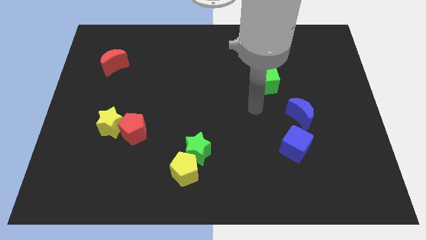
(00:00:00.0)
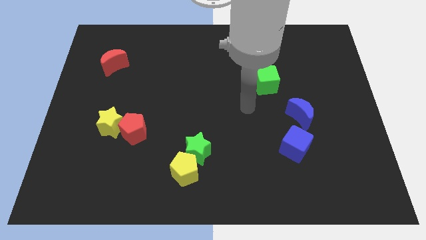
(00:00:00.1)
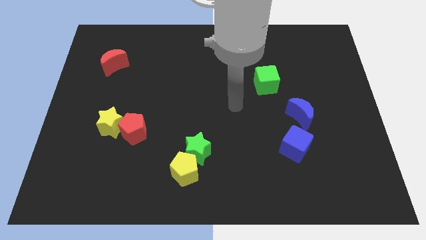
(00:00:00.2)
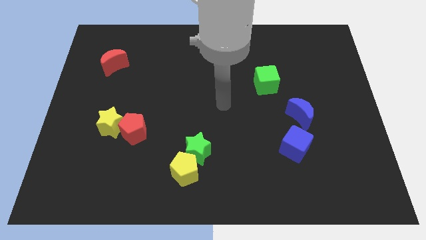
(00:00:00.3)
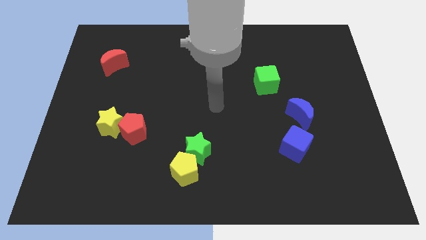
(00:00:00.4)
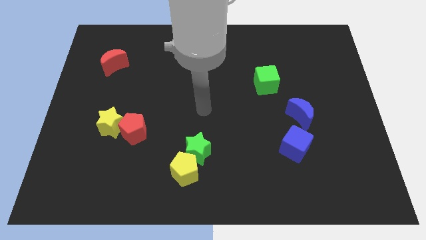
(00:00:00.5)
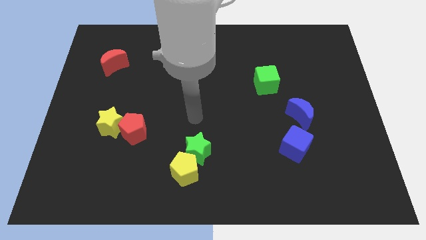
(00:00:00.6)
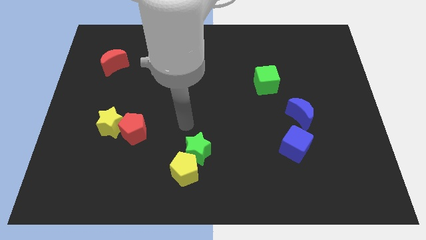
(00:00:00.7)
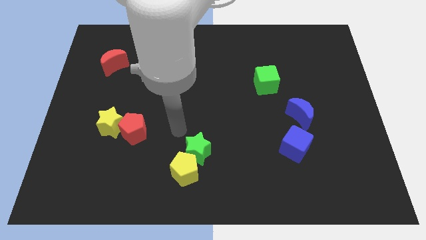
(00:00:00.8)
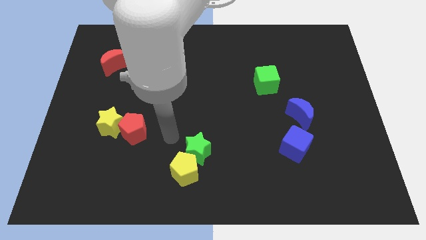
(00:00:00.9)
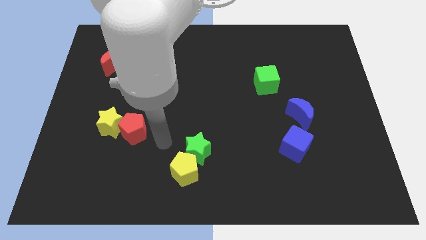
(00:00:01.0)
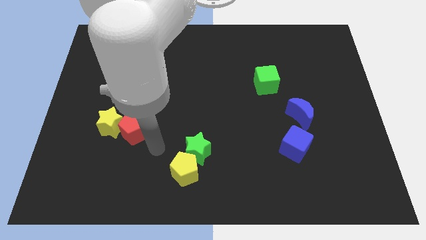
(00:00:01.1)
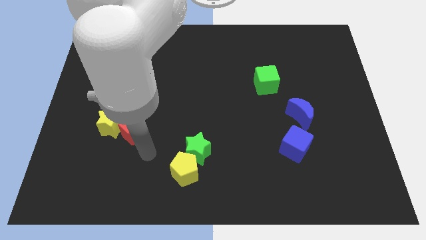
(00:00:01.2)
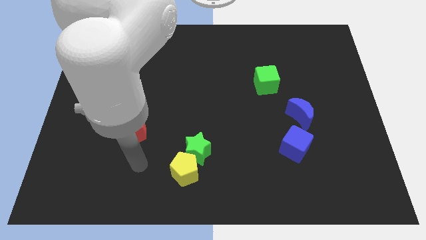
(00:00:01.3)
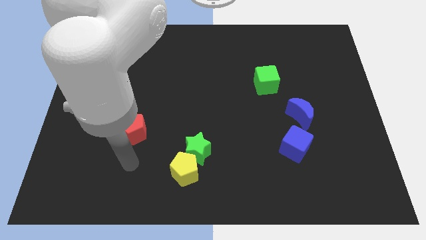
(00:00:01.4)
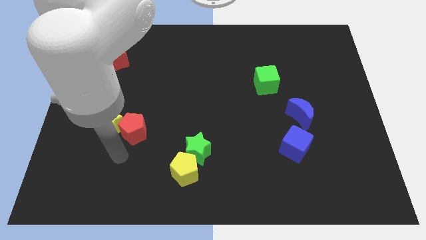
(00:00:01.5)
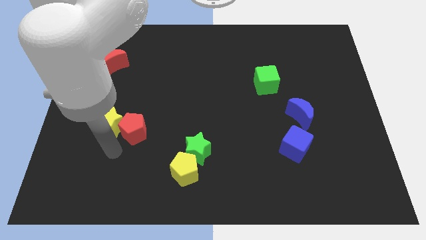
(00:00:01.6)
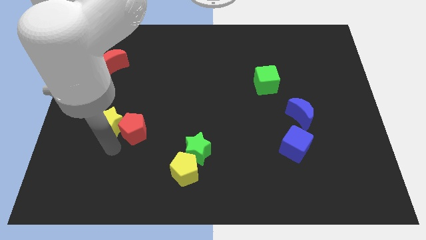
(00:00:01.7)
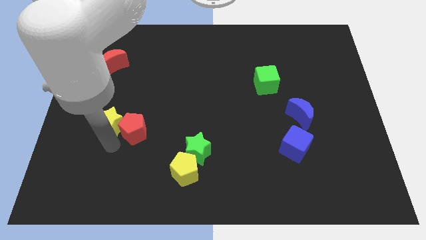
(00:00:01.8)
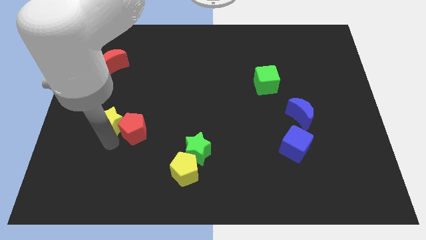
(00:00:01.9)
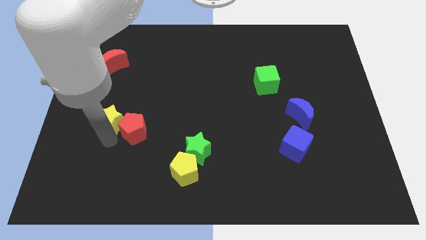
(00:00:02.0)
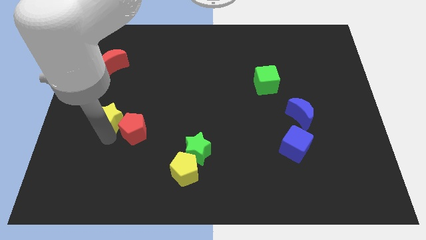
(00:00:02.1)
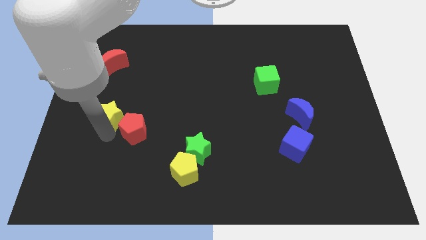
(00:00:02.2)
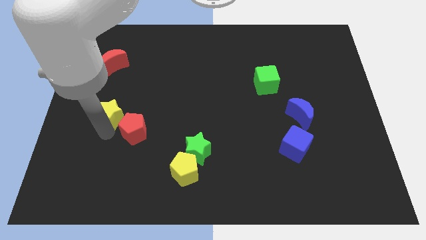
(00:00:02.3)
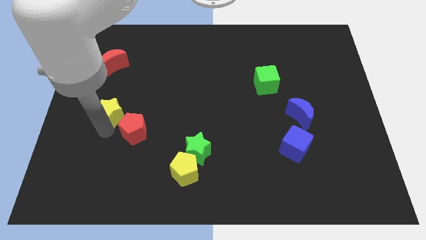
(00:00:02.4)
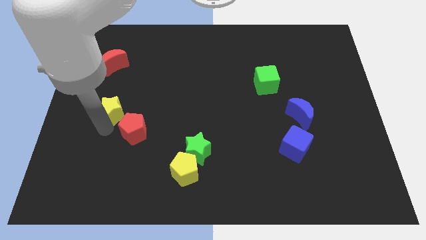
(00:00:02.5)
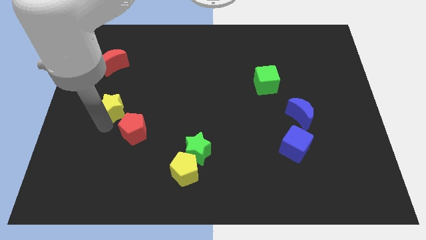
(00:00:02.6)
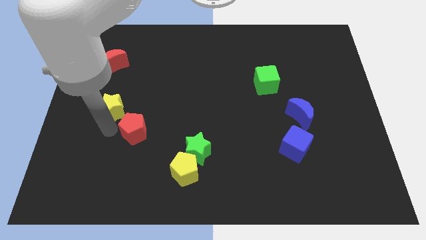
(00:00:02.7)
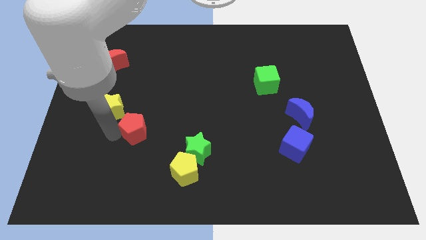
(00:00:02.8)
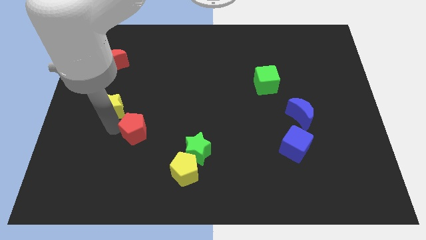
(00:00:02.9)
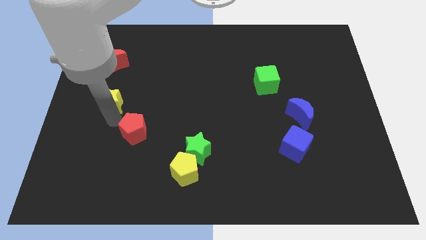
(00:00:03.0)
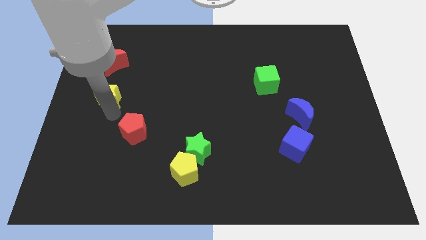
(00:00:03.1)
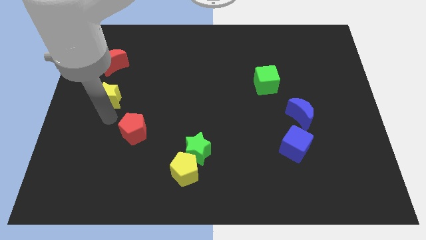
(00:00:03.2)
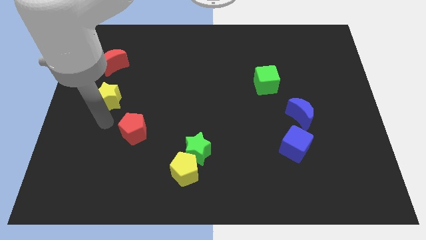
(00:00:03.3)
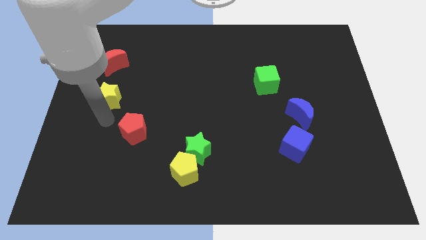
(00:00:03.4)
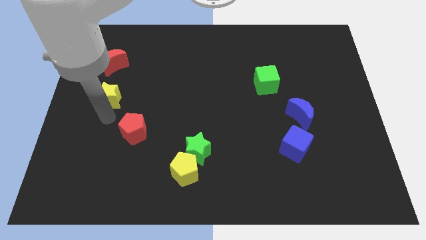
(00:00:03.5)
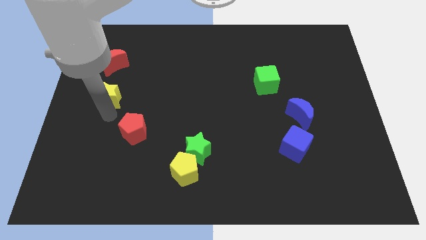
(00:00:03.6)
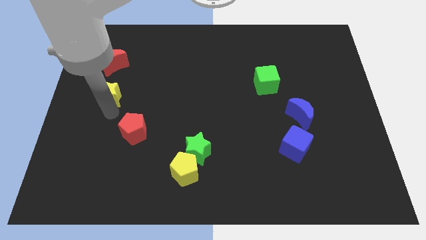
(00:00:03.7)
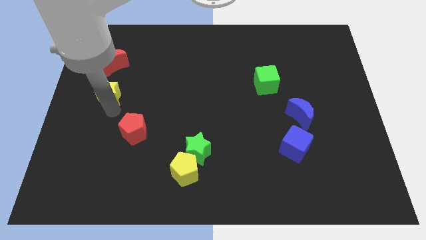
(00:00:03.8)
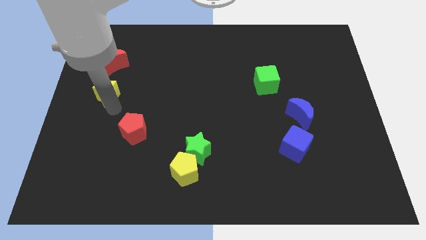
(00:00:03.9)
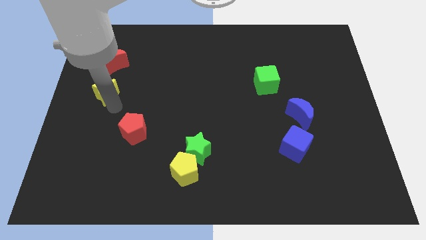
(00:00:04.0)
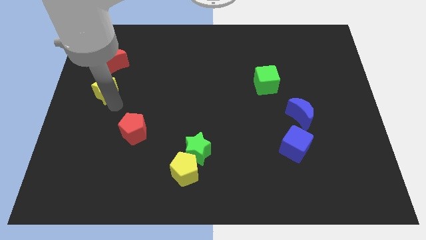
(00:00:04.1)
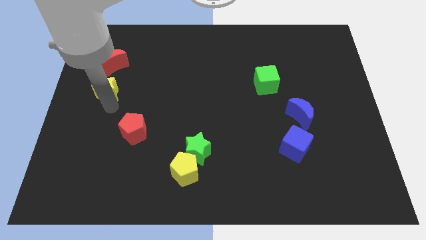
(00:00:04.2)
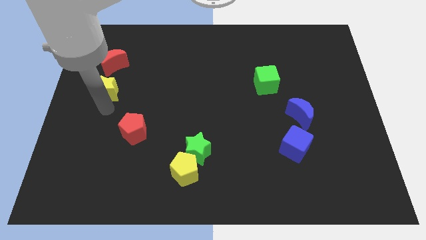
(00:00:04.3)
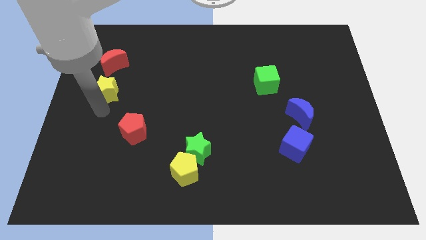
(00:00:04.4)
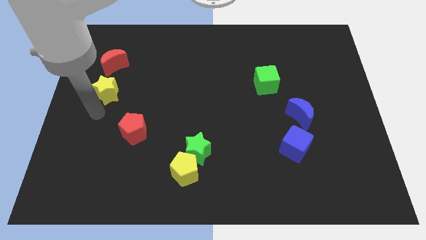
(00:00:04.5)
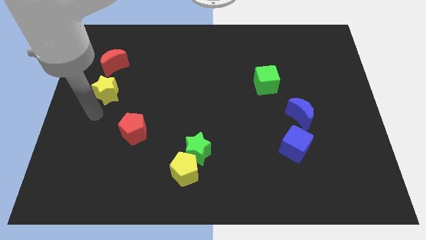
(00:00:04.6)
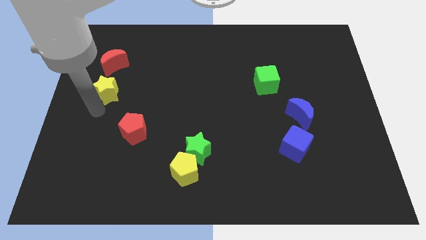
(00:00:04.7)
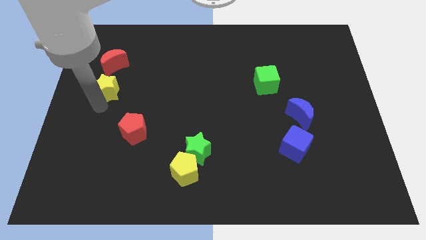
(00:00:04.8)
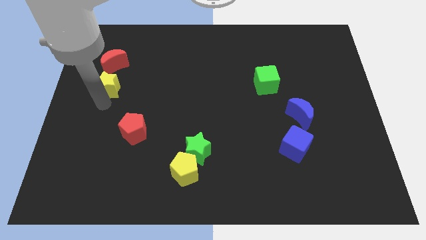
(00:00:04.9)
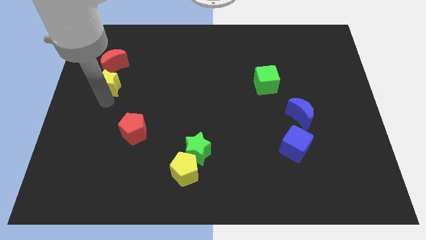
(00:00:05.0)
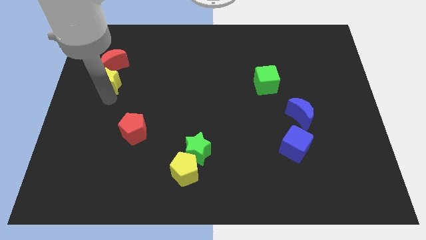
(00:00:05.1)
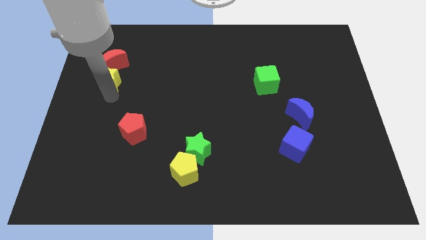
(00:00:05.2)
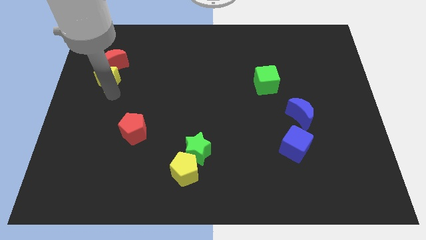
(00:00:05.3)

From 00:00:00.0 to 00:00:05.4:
slide the yellow star towards the red moon

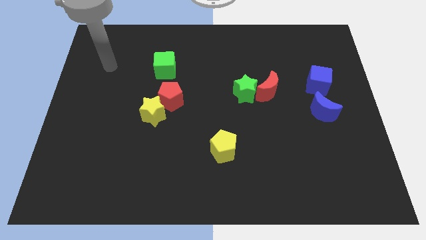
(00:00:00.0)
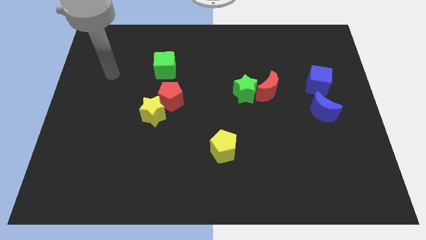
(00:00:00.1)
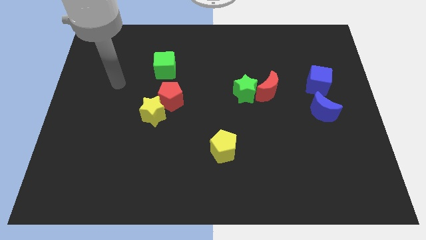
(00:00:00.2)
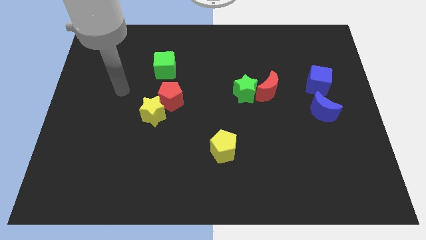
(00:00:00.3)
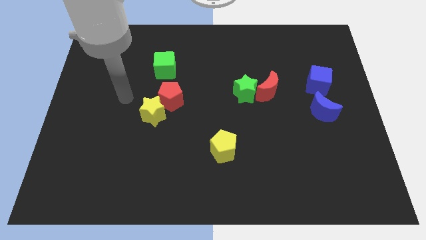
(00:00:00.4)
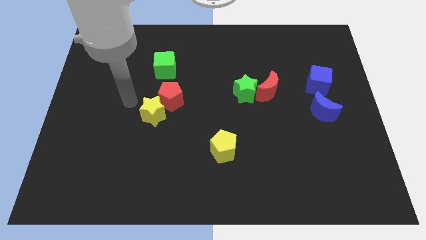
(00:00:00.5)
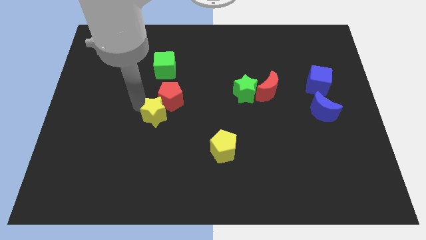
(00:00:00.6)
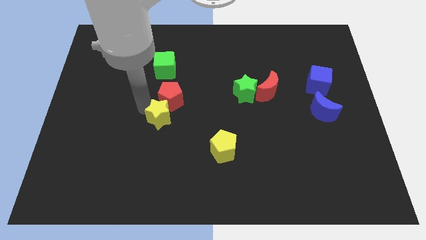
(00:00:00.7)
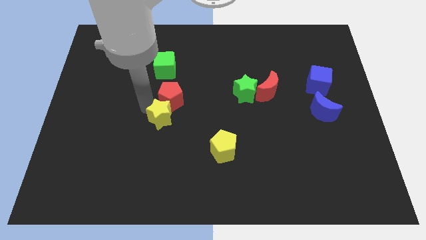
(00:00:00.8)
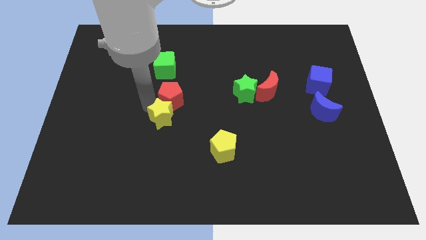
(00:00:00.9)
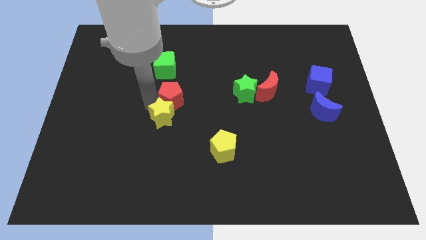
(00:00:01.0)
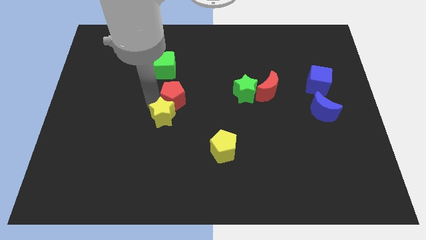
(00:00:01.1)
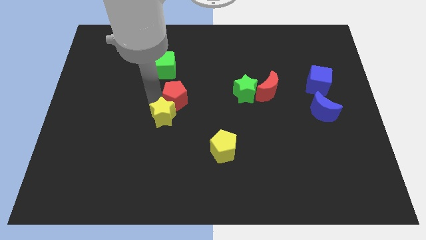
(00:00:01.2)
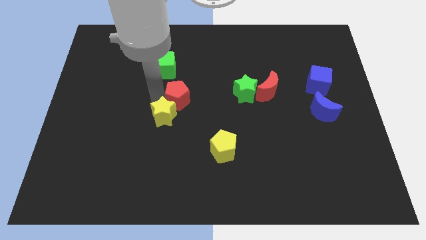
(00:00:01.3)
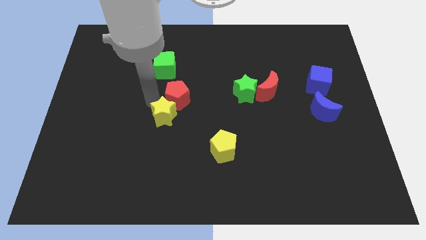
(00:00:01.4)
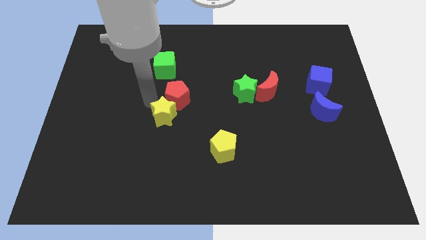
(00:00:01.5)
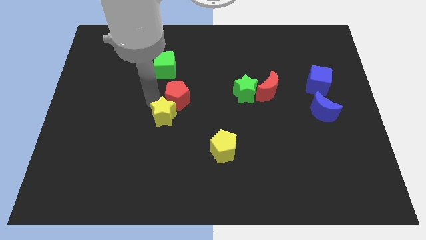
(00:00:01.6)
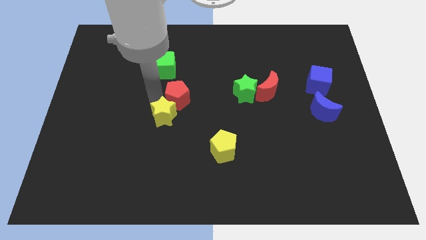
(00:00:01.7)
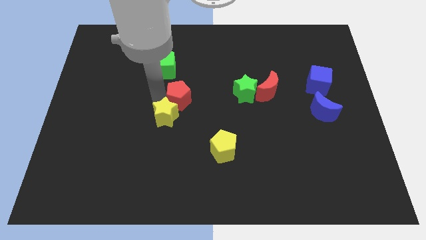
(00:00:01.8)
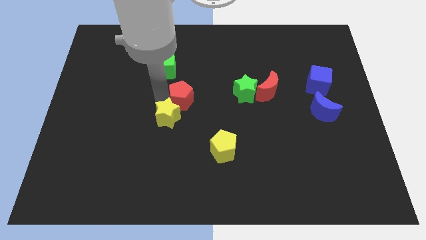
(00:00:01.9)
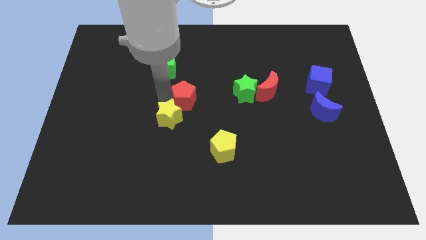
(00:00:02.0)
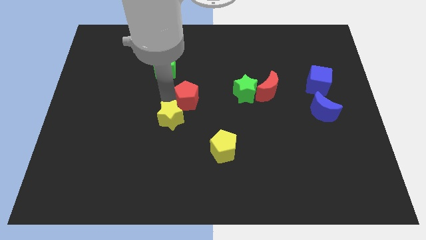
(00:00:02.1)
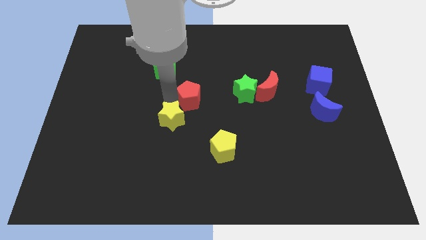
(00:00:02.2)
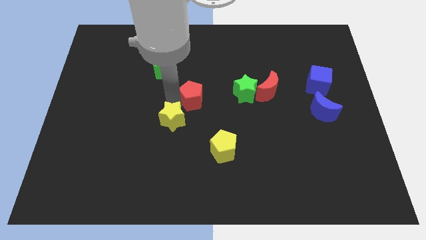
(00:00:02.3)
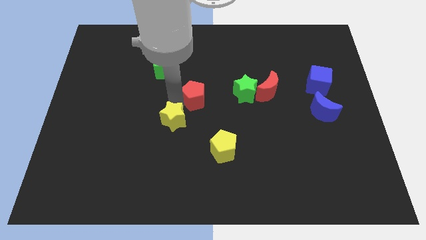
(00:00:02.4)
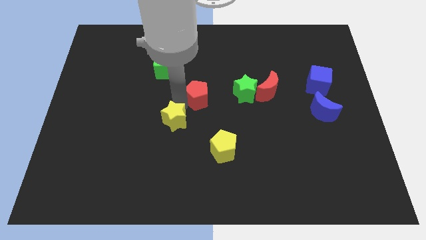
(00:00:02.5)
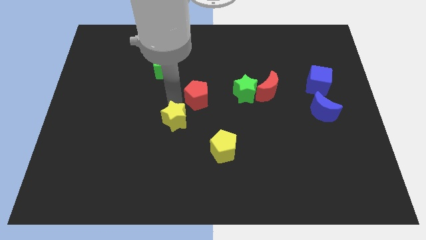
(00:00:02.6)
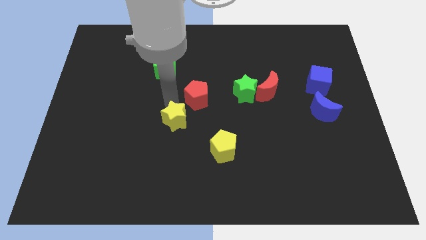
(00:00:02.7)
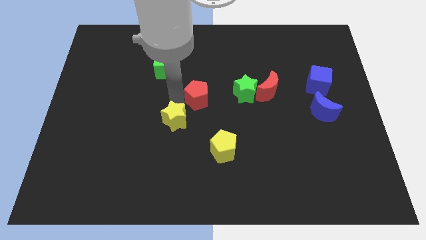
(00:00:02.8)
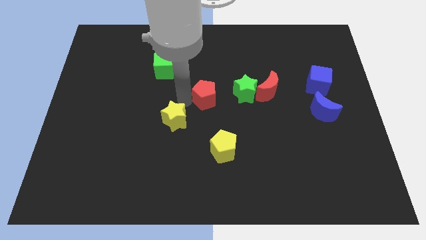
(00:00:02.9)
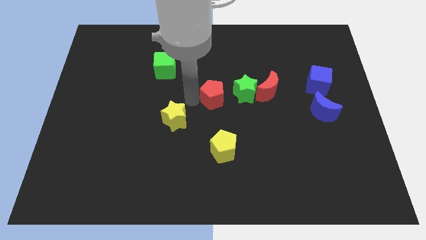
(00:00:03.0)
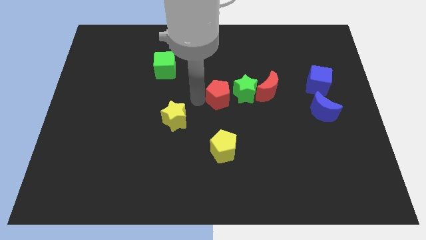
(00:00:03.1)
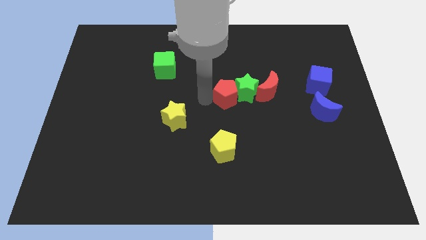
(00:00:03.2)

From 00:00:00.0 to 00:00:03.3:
put the red pentagon next to the green star
